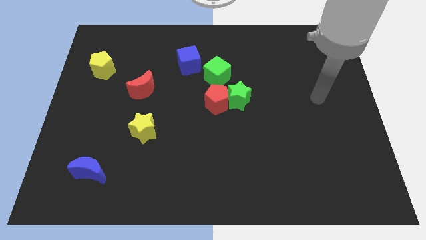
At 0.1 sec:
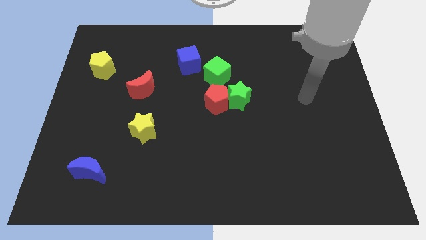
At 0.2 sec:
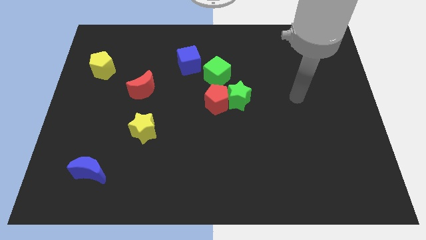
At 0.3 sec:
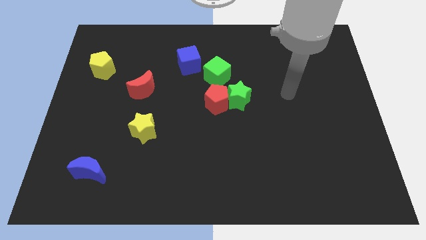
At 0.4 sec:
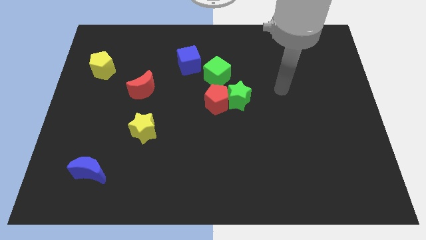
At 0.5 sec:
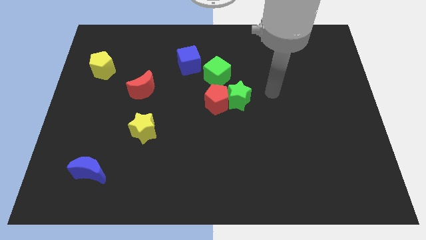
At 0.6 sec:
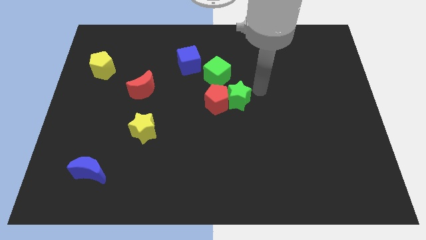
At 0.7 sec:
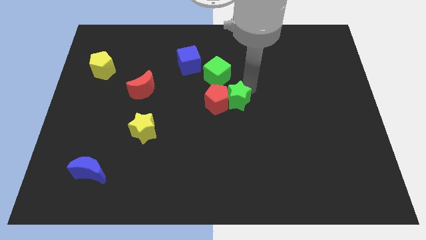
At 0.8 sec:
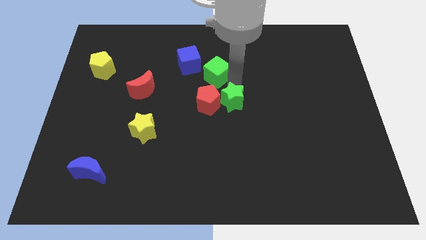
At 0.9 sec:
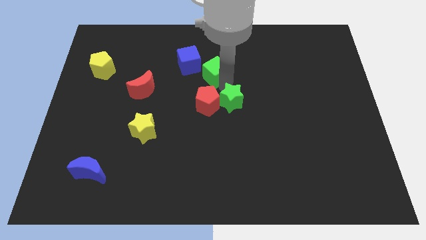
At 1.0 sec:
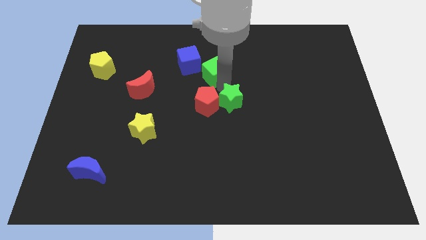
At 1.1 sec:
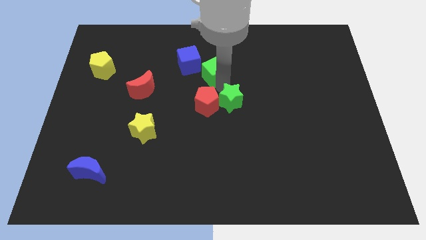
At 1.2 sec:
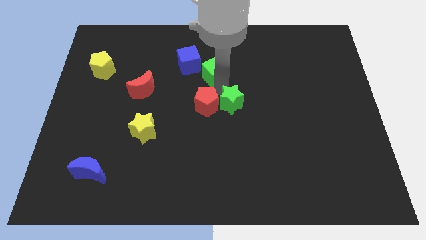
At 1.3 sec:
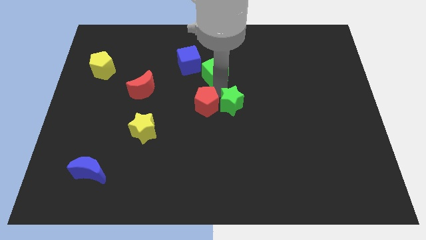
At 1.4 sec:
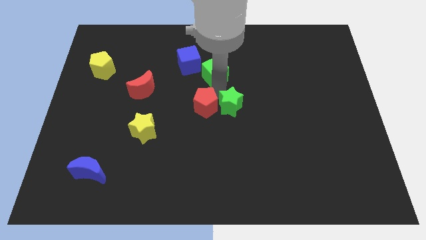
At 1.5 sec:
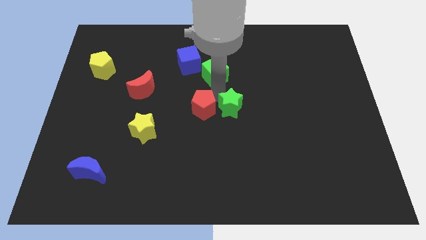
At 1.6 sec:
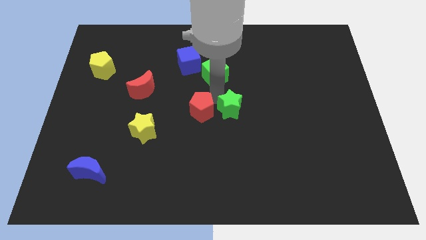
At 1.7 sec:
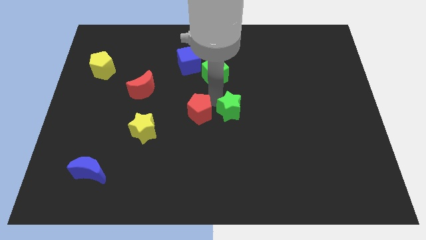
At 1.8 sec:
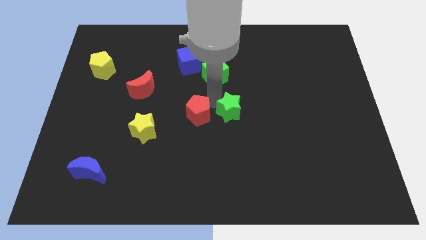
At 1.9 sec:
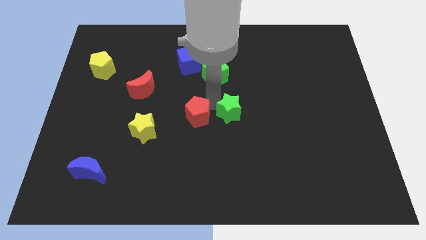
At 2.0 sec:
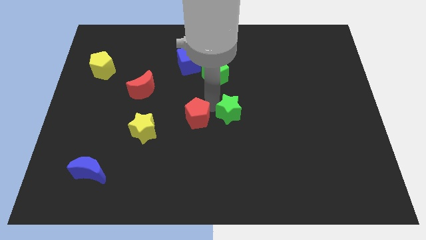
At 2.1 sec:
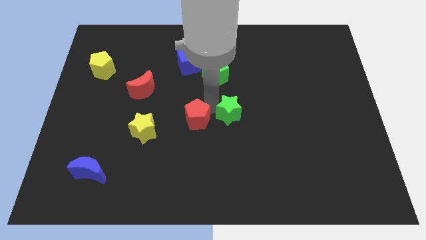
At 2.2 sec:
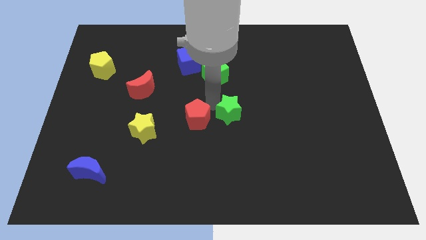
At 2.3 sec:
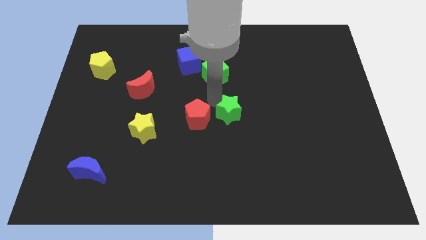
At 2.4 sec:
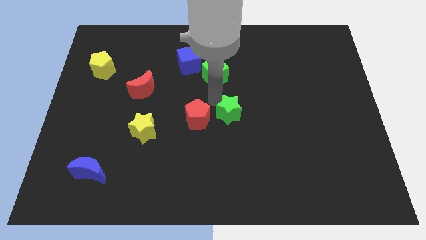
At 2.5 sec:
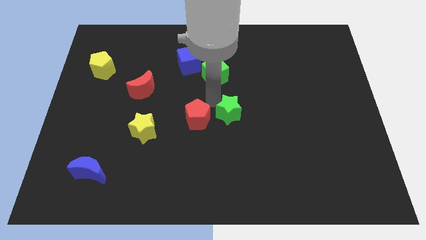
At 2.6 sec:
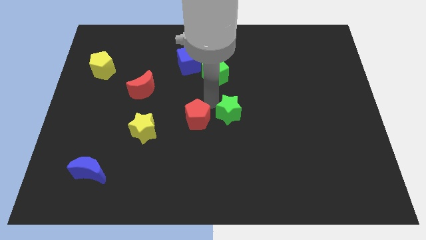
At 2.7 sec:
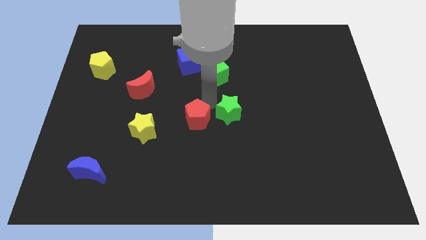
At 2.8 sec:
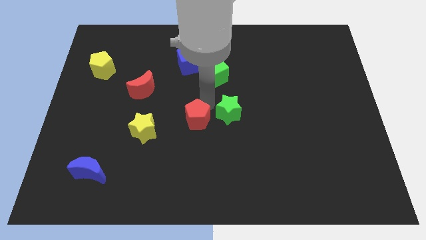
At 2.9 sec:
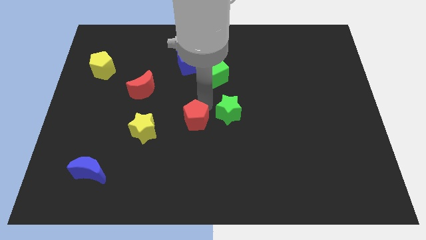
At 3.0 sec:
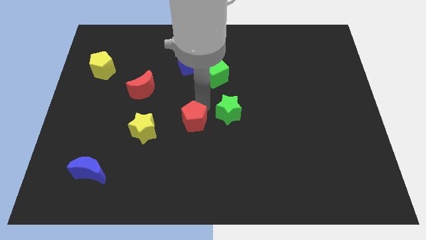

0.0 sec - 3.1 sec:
move the red pentagon away from the green star and green cube

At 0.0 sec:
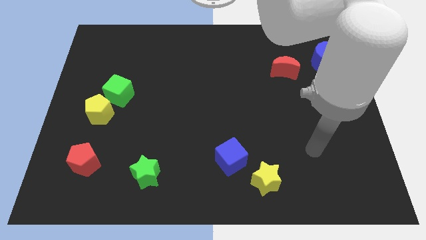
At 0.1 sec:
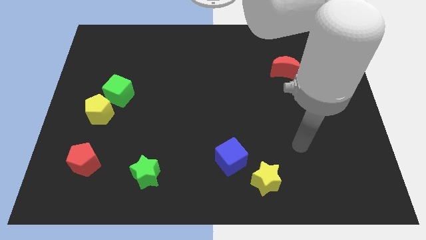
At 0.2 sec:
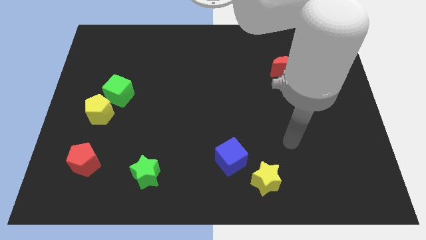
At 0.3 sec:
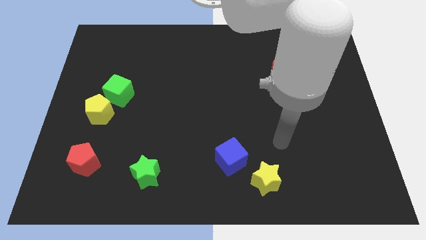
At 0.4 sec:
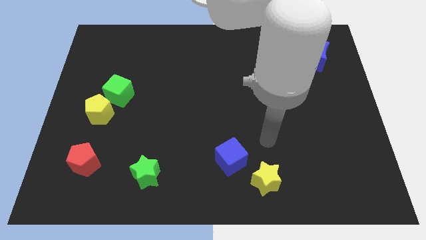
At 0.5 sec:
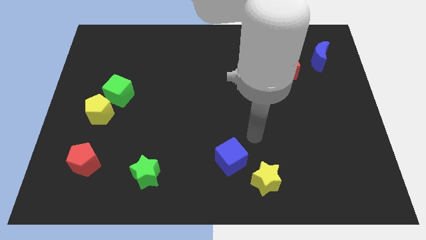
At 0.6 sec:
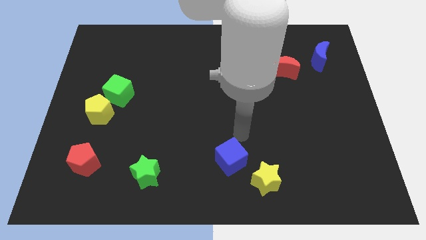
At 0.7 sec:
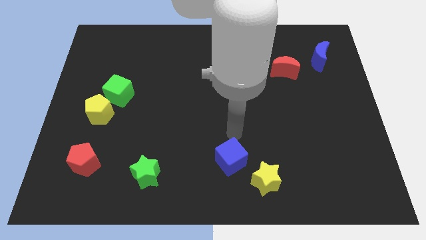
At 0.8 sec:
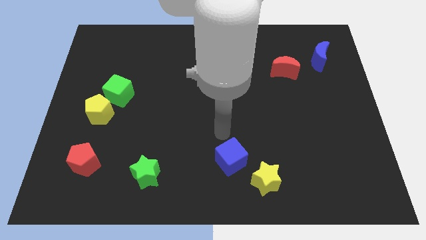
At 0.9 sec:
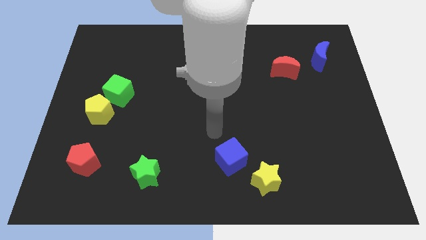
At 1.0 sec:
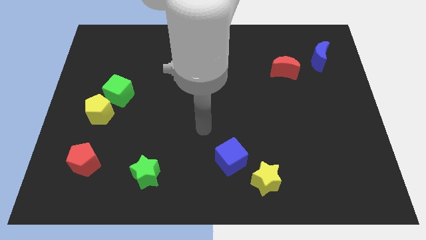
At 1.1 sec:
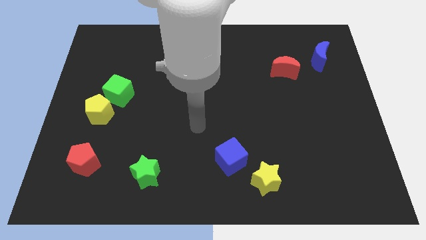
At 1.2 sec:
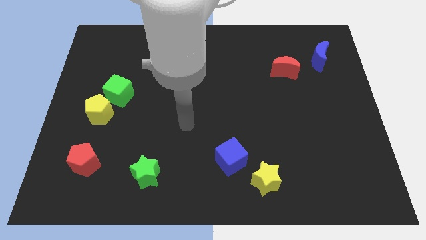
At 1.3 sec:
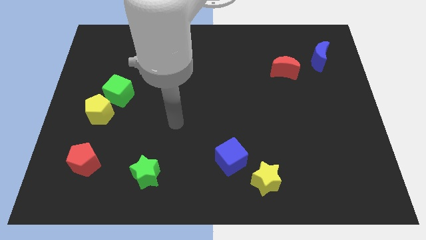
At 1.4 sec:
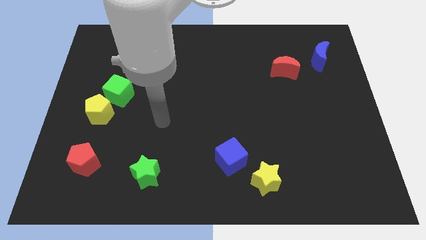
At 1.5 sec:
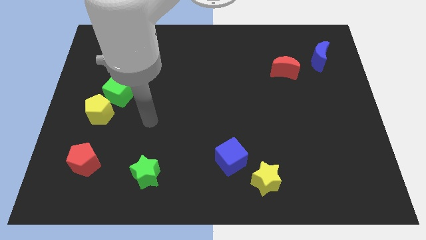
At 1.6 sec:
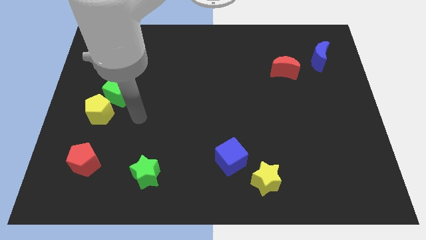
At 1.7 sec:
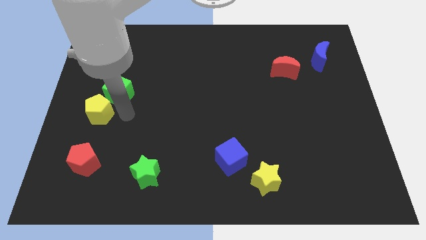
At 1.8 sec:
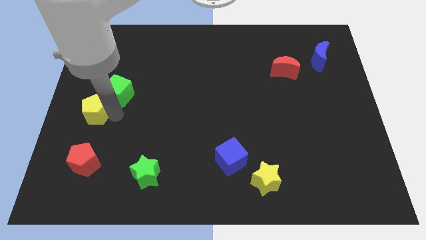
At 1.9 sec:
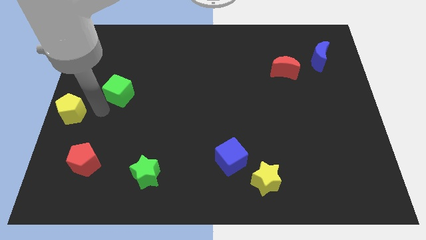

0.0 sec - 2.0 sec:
move the green cube away from the yellow pentagon

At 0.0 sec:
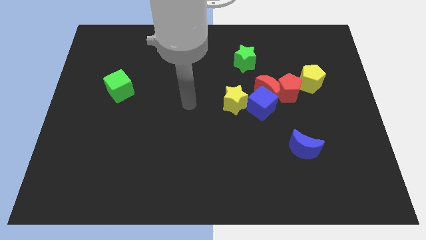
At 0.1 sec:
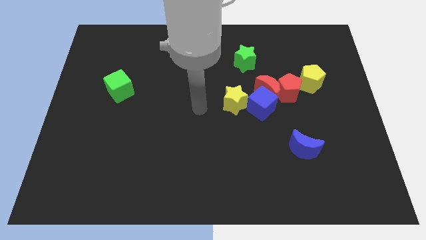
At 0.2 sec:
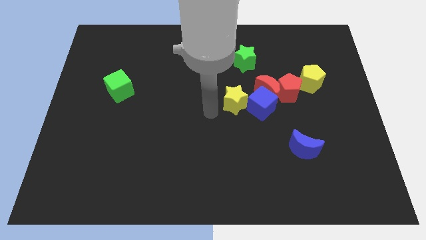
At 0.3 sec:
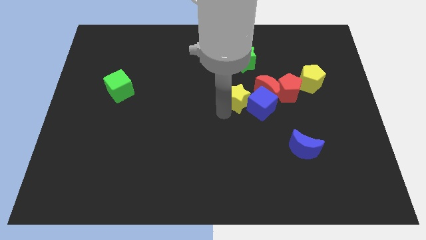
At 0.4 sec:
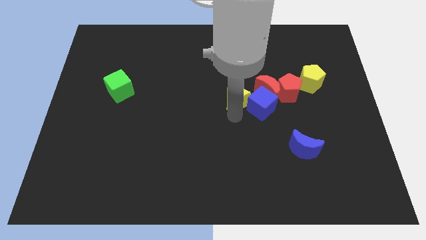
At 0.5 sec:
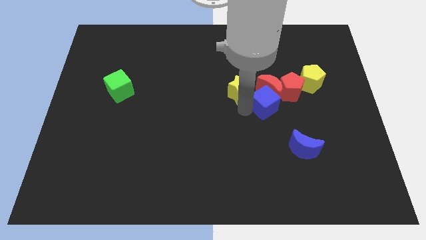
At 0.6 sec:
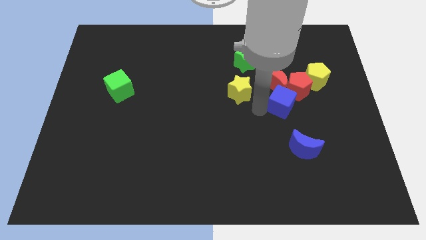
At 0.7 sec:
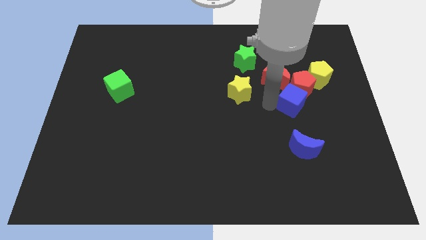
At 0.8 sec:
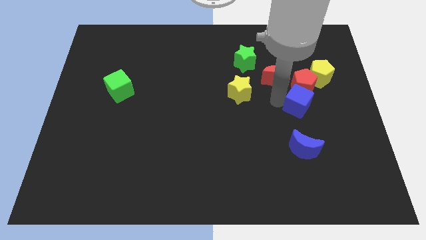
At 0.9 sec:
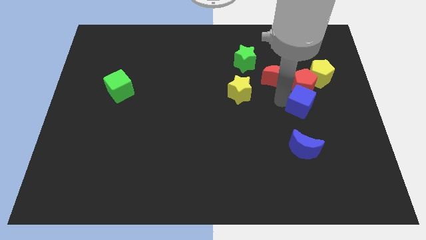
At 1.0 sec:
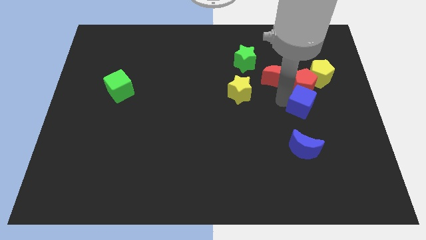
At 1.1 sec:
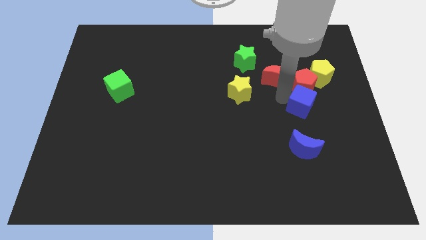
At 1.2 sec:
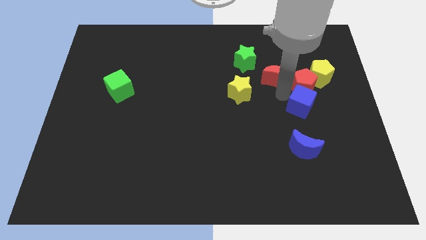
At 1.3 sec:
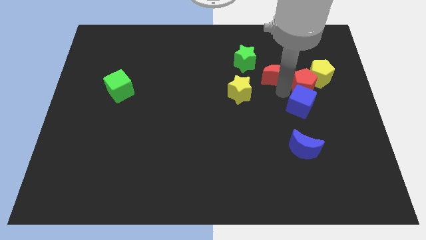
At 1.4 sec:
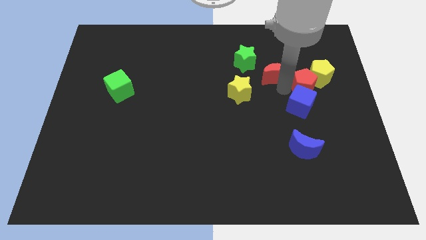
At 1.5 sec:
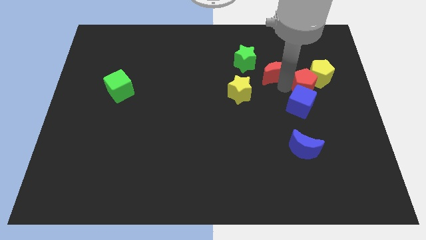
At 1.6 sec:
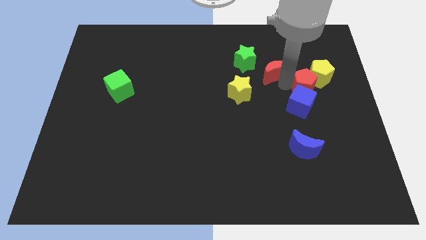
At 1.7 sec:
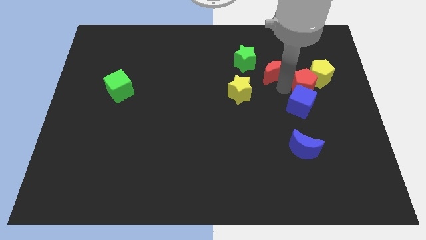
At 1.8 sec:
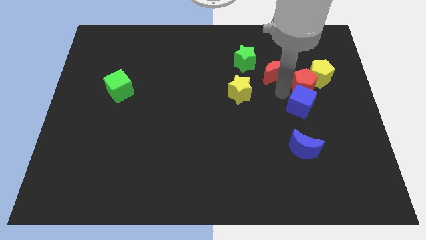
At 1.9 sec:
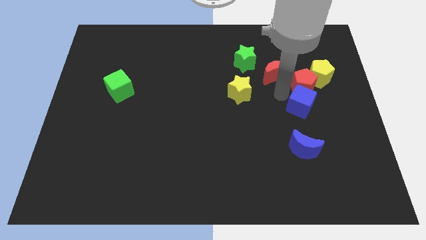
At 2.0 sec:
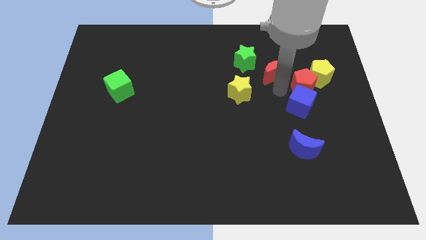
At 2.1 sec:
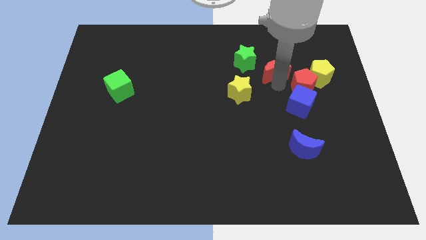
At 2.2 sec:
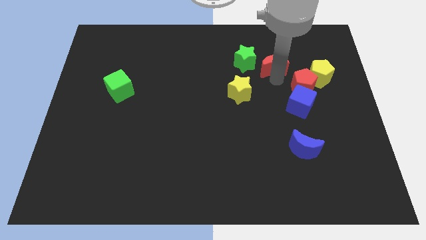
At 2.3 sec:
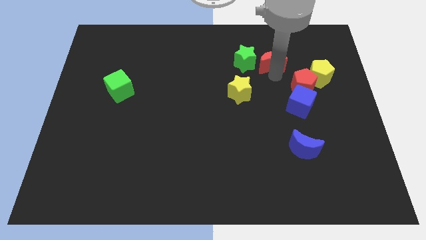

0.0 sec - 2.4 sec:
pull the red moon apart from the red pentagon, blue cube, and yellow star

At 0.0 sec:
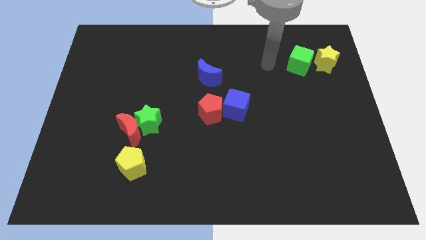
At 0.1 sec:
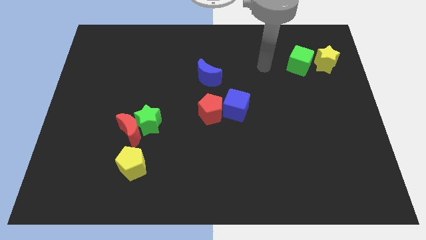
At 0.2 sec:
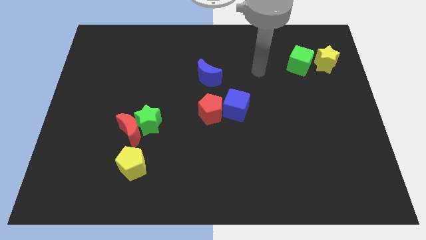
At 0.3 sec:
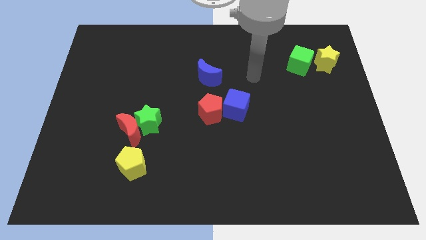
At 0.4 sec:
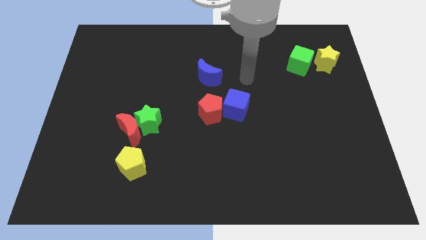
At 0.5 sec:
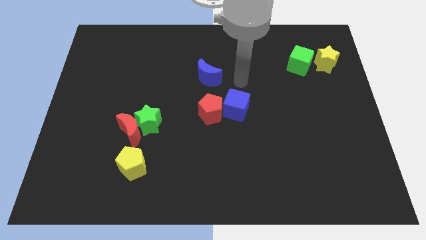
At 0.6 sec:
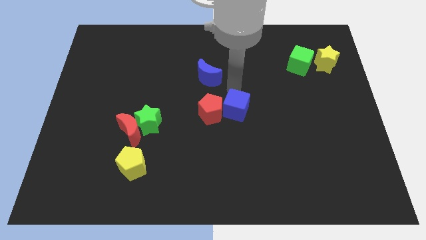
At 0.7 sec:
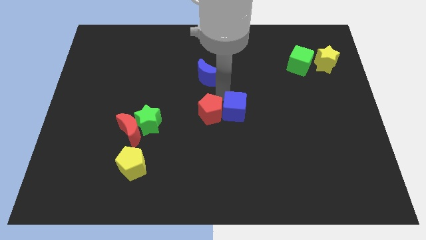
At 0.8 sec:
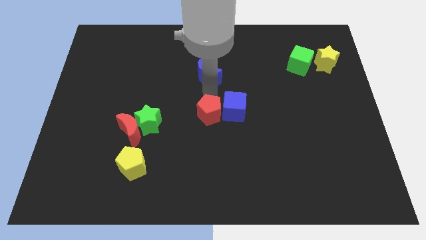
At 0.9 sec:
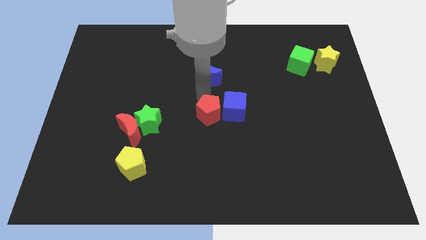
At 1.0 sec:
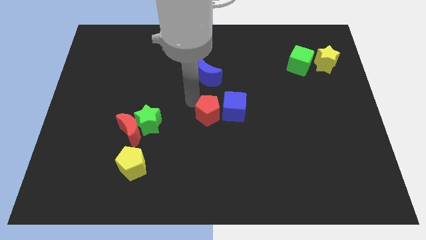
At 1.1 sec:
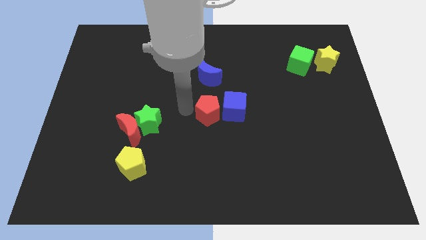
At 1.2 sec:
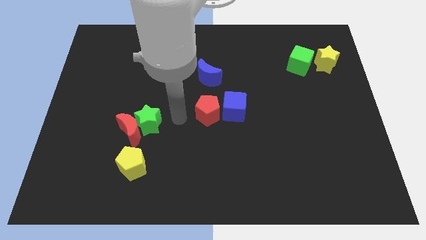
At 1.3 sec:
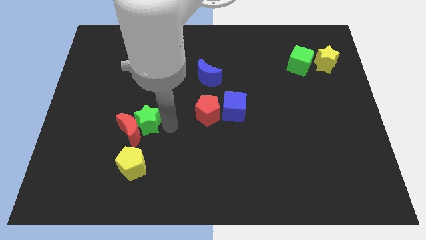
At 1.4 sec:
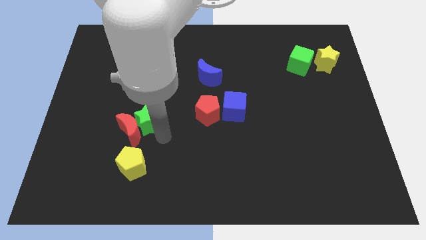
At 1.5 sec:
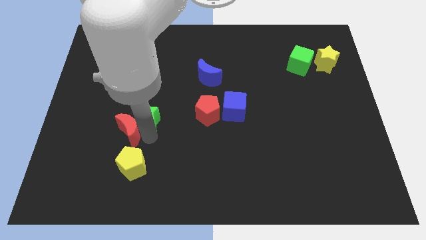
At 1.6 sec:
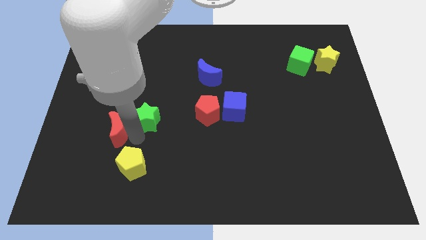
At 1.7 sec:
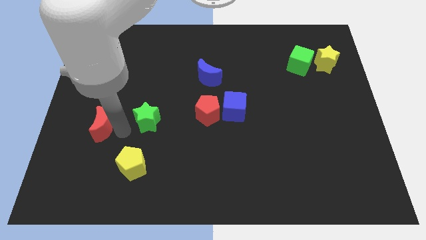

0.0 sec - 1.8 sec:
separate the green star from the red moon
